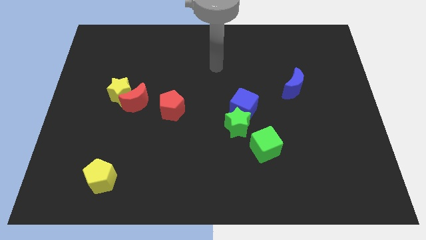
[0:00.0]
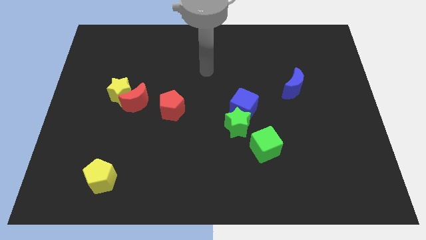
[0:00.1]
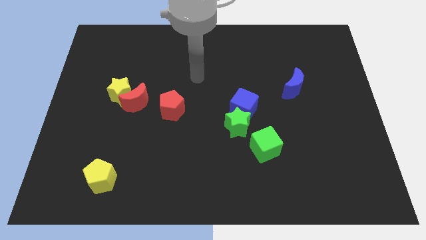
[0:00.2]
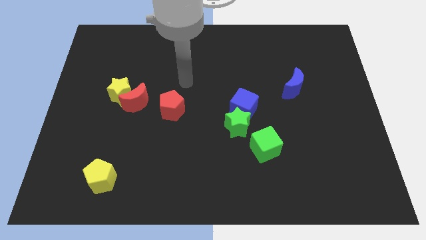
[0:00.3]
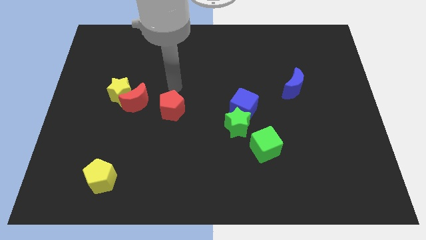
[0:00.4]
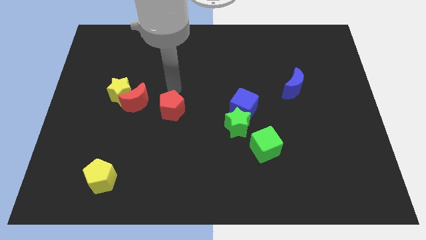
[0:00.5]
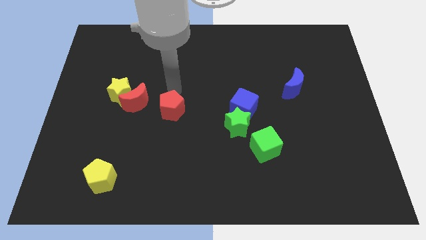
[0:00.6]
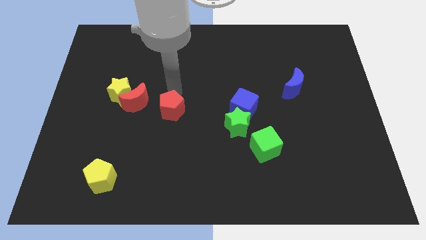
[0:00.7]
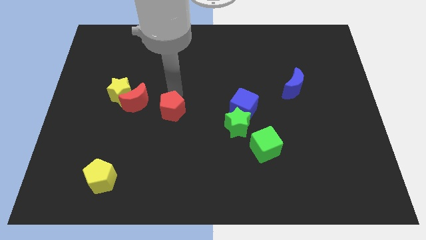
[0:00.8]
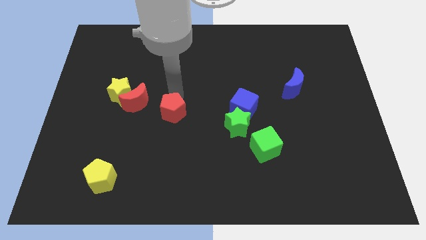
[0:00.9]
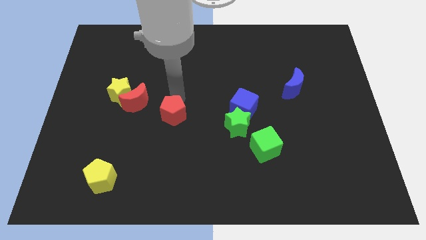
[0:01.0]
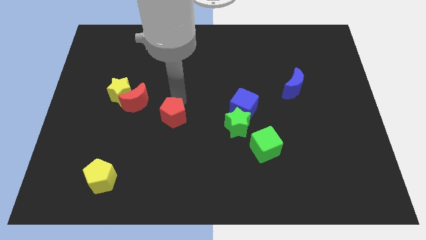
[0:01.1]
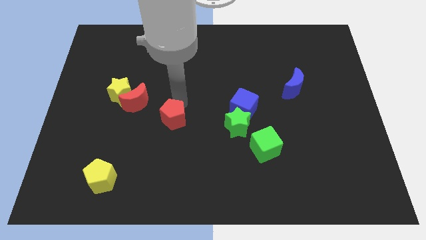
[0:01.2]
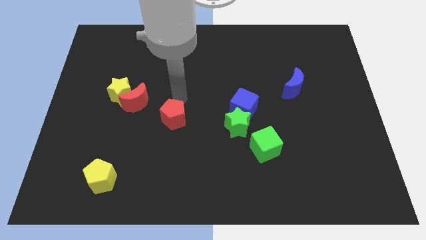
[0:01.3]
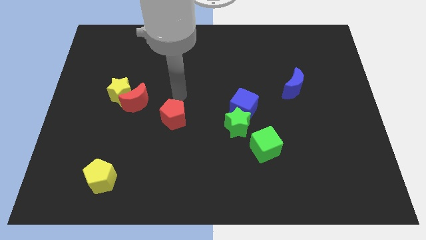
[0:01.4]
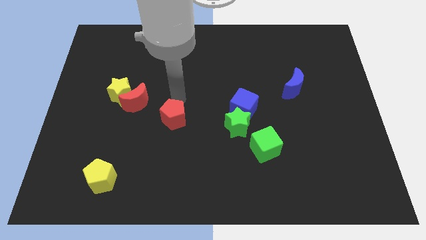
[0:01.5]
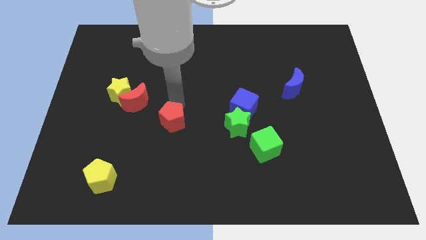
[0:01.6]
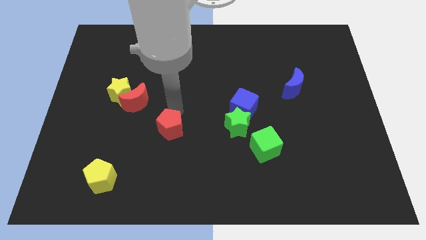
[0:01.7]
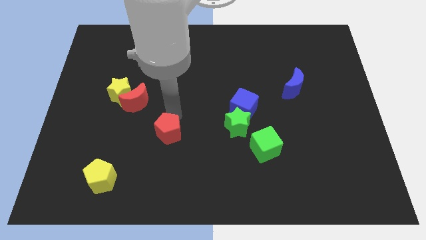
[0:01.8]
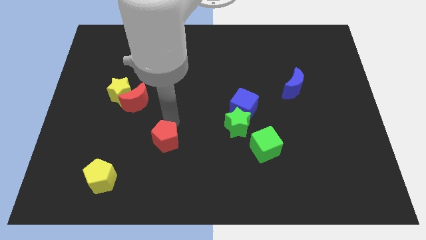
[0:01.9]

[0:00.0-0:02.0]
slightly slide the red pentagon down

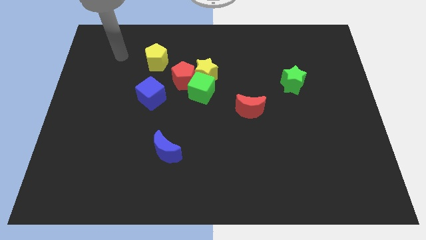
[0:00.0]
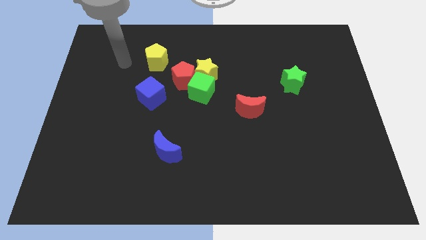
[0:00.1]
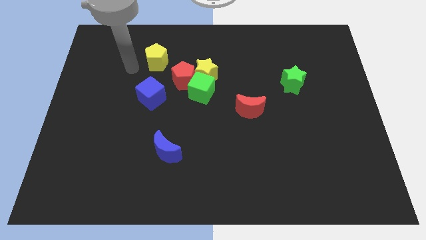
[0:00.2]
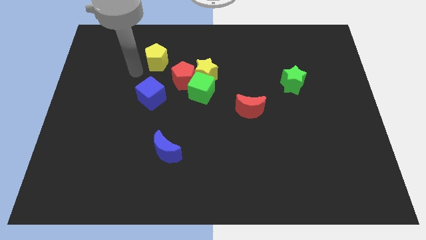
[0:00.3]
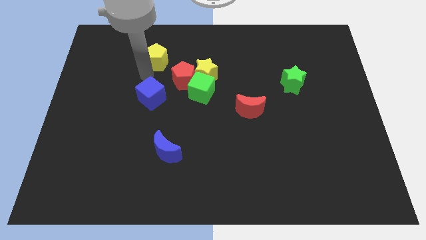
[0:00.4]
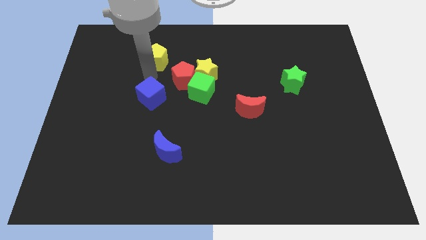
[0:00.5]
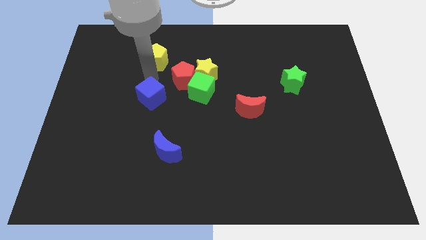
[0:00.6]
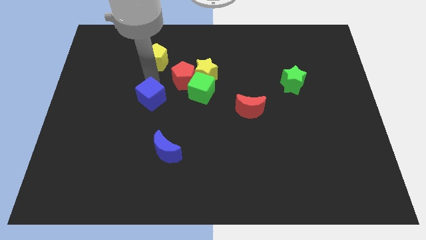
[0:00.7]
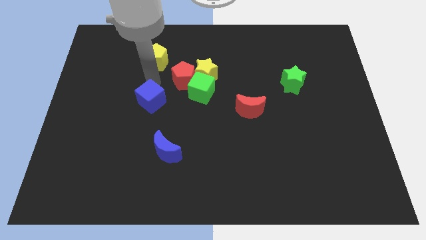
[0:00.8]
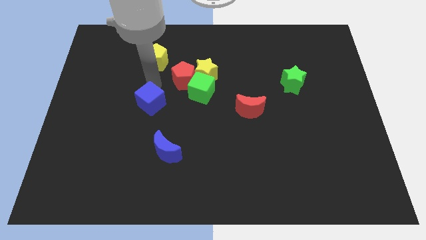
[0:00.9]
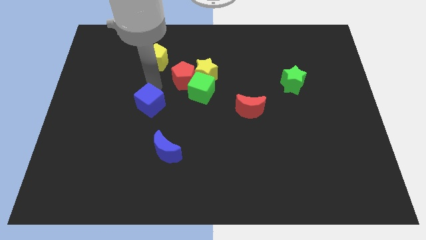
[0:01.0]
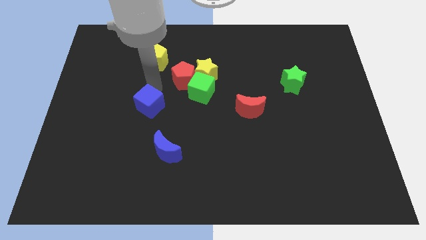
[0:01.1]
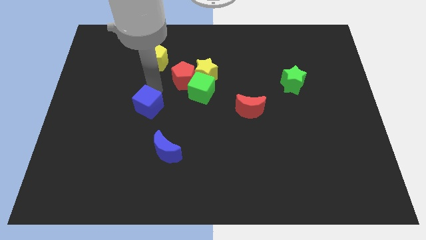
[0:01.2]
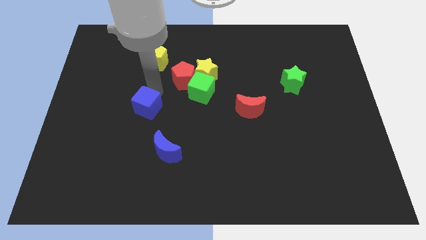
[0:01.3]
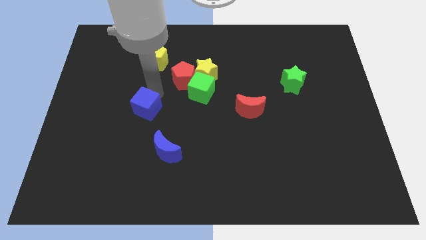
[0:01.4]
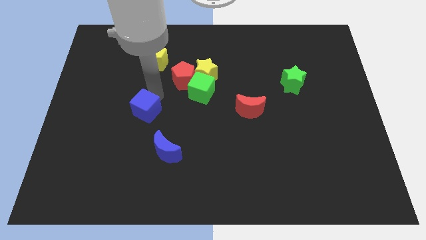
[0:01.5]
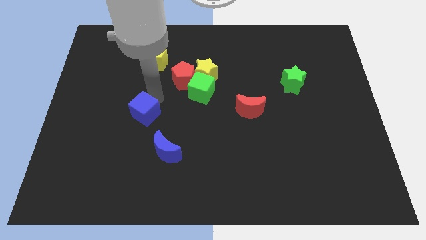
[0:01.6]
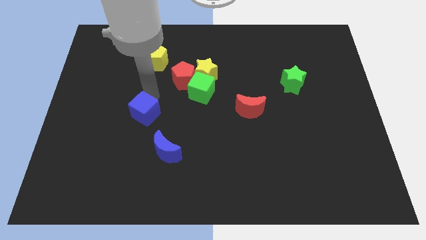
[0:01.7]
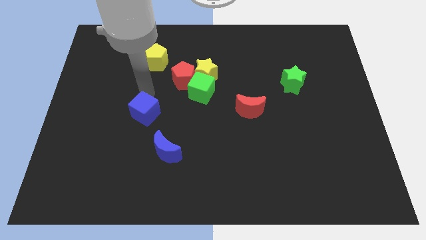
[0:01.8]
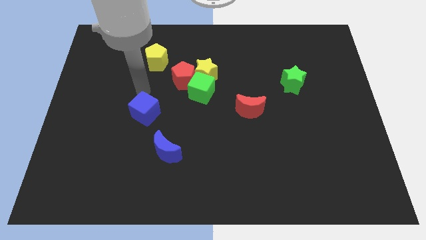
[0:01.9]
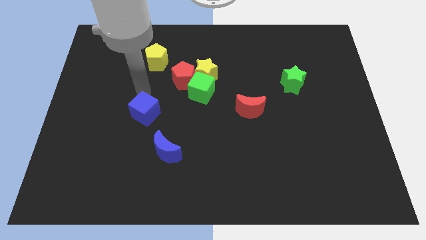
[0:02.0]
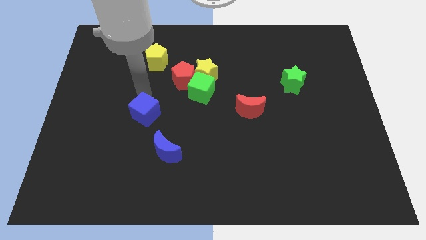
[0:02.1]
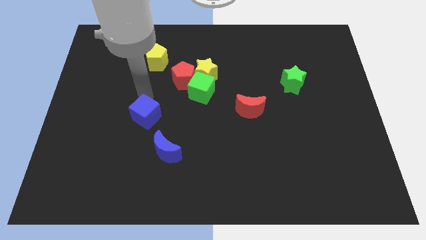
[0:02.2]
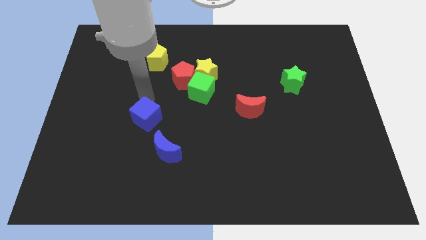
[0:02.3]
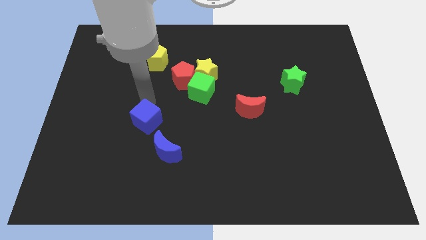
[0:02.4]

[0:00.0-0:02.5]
slide the blue cube a little downwards

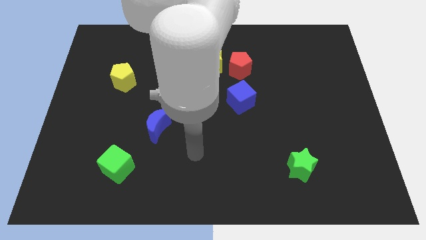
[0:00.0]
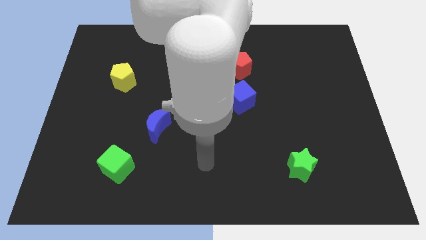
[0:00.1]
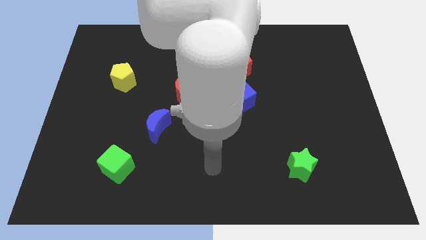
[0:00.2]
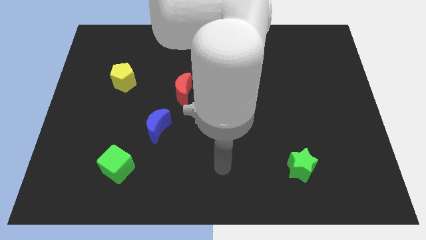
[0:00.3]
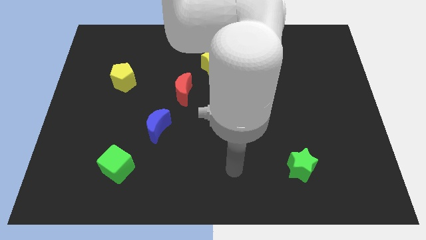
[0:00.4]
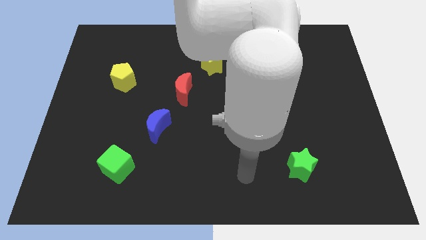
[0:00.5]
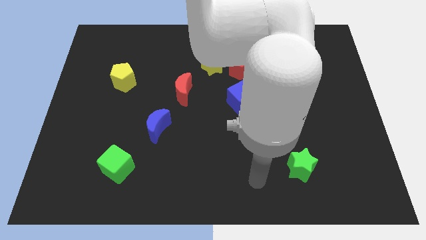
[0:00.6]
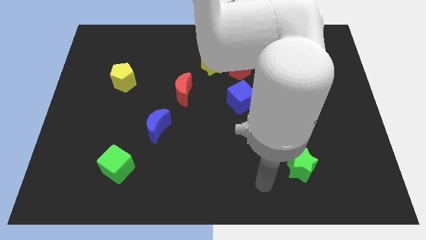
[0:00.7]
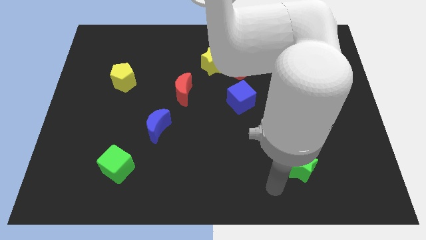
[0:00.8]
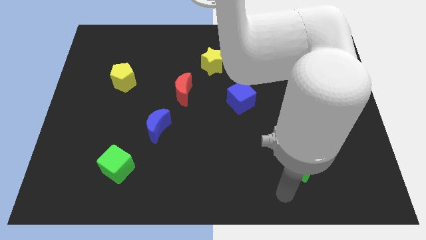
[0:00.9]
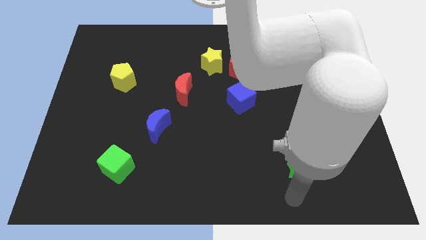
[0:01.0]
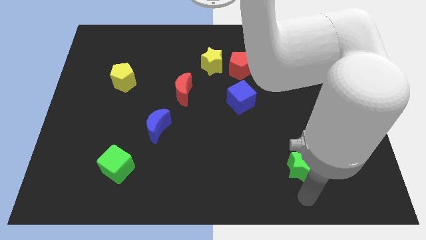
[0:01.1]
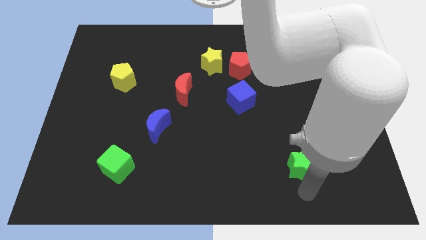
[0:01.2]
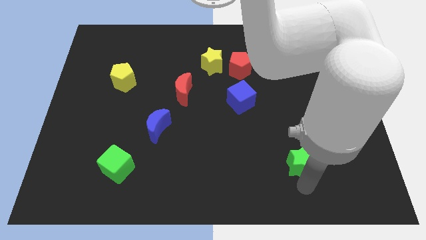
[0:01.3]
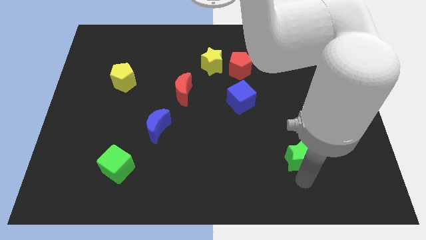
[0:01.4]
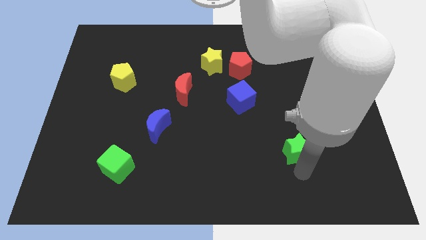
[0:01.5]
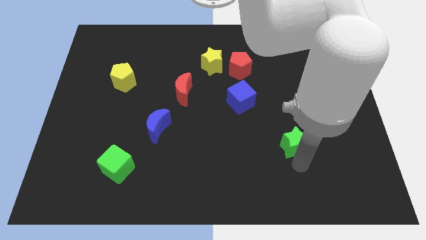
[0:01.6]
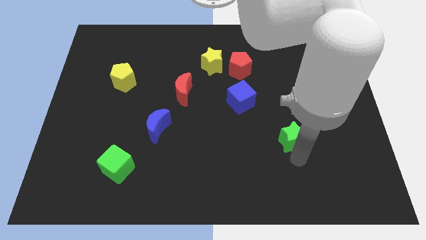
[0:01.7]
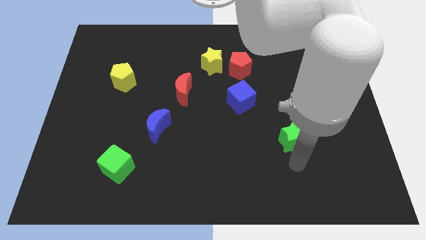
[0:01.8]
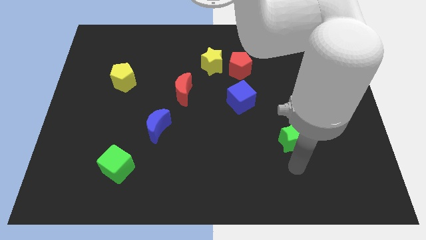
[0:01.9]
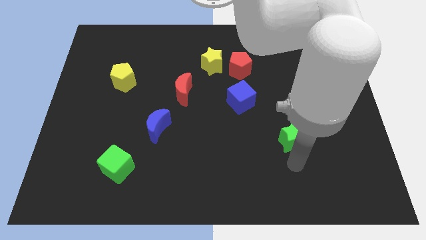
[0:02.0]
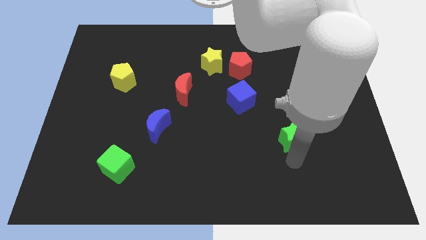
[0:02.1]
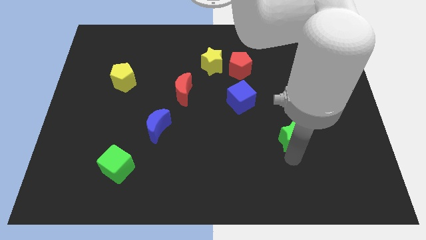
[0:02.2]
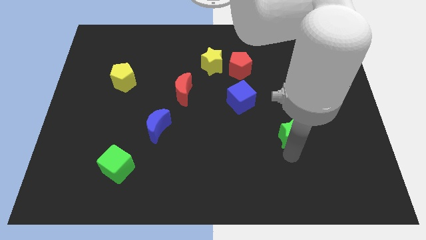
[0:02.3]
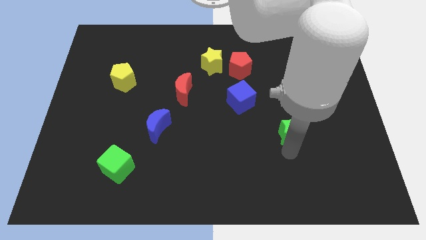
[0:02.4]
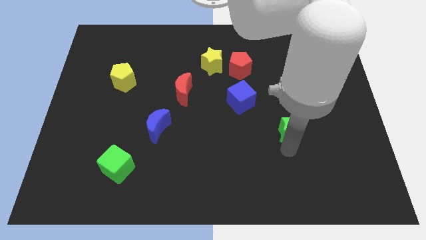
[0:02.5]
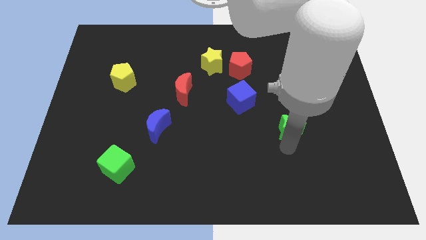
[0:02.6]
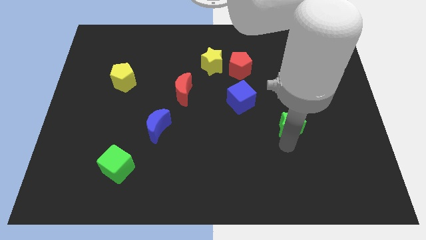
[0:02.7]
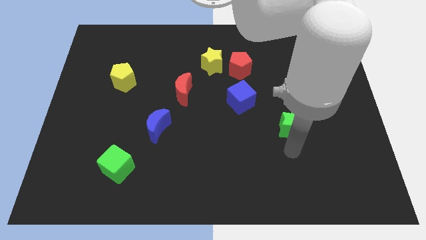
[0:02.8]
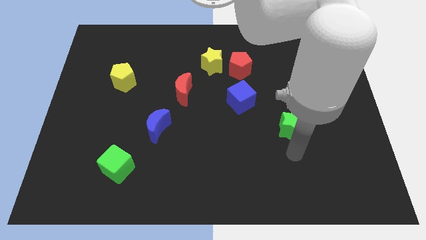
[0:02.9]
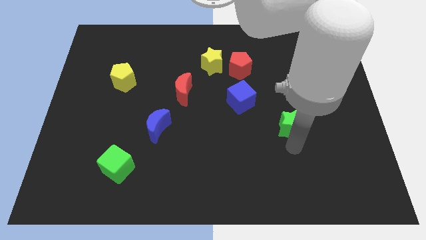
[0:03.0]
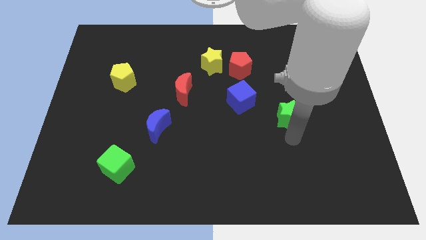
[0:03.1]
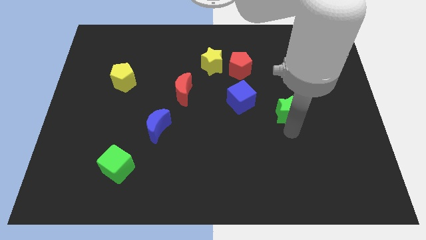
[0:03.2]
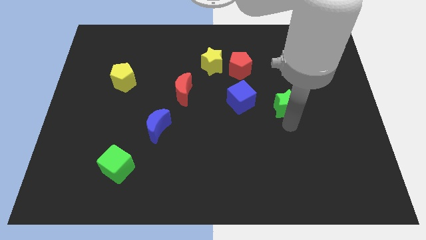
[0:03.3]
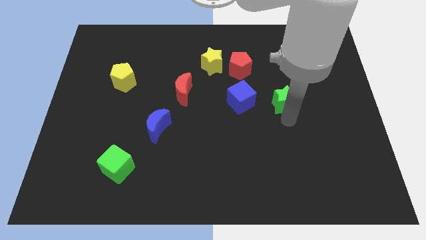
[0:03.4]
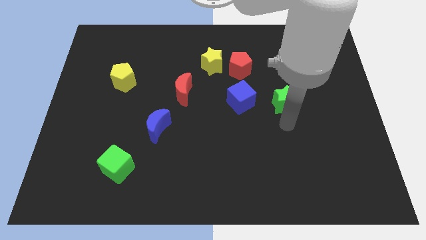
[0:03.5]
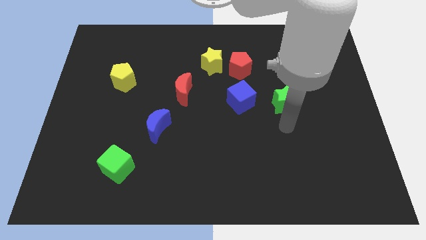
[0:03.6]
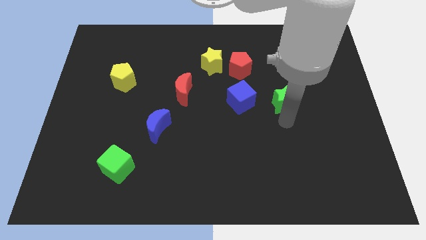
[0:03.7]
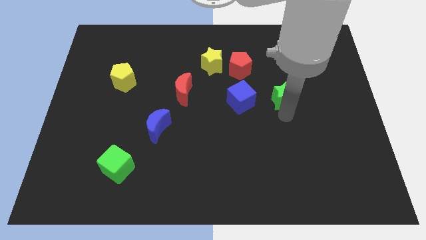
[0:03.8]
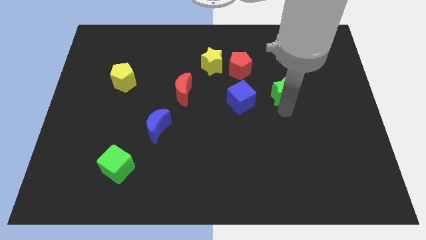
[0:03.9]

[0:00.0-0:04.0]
move the green star up
